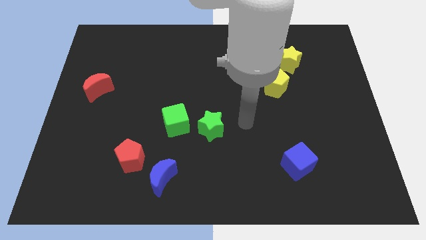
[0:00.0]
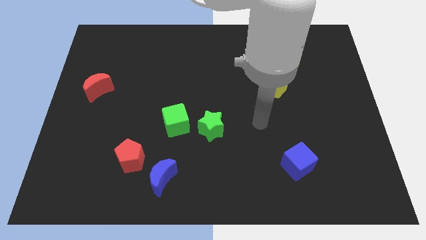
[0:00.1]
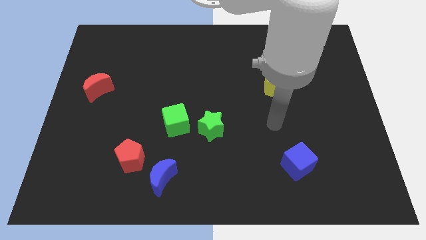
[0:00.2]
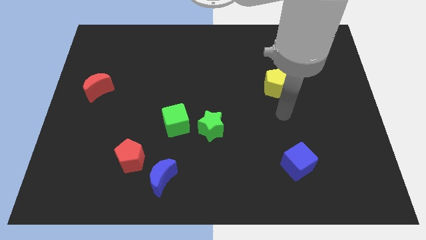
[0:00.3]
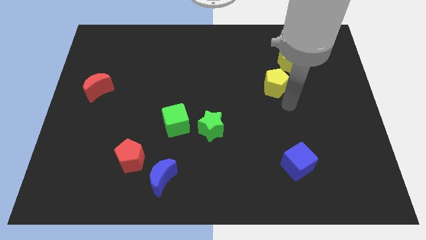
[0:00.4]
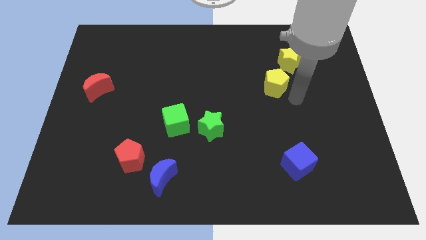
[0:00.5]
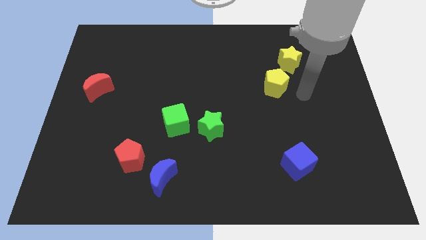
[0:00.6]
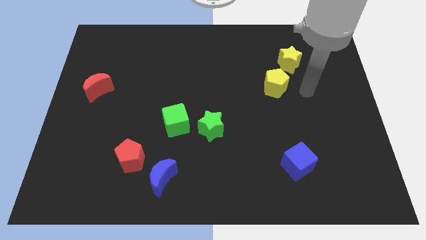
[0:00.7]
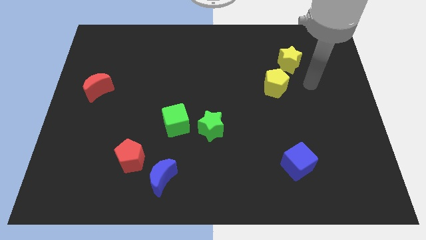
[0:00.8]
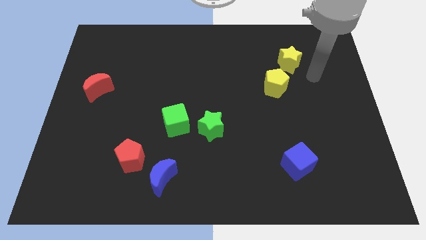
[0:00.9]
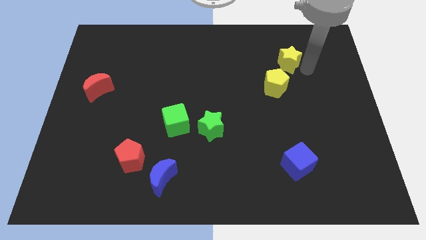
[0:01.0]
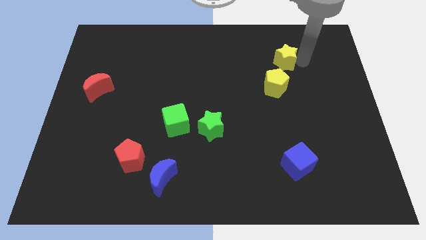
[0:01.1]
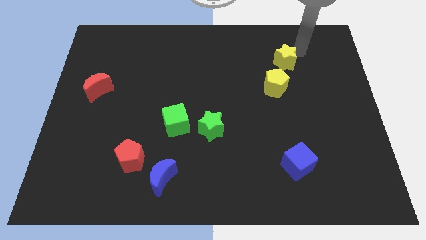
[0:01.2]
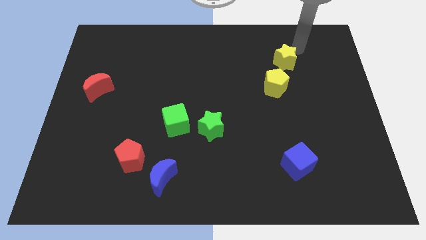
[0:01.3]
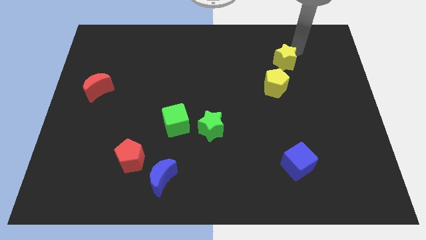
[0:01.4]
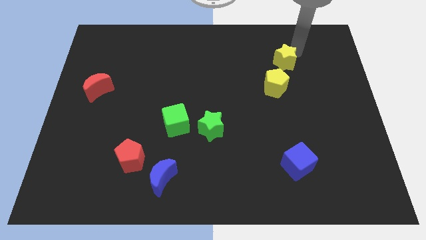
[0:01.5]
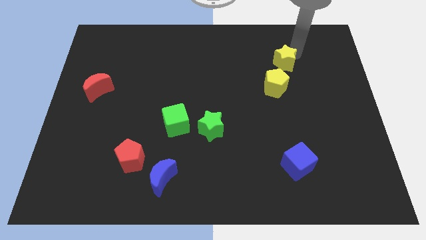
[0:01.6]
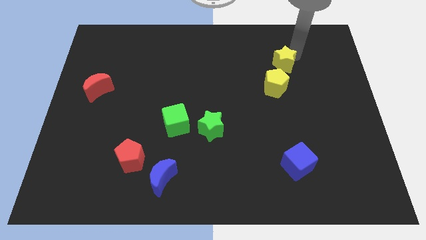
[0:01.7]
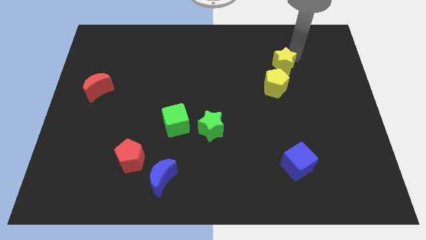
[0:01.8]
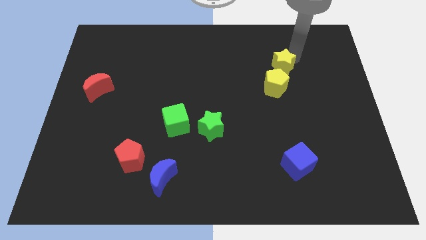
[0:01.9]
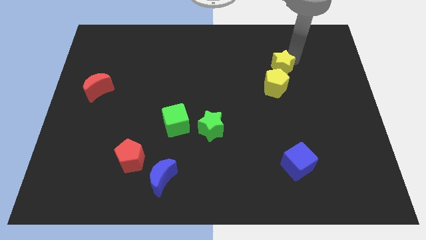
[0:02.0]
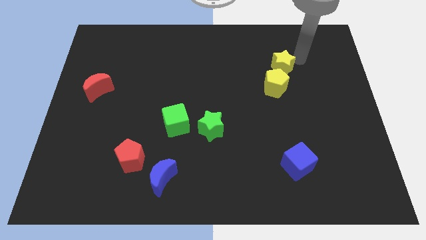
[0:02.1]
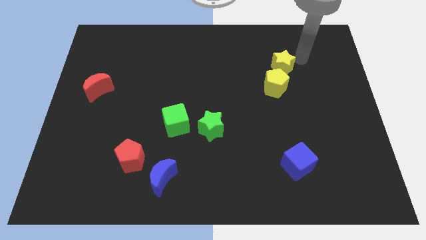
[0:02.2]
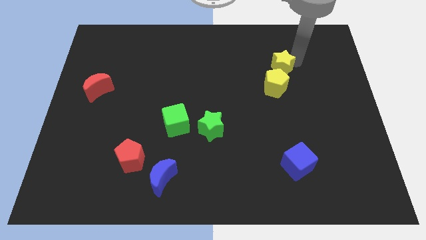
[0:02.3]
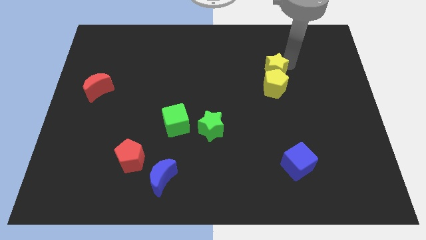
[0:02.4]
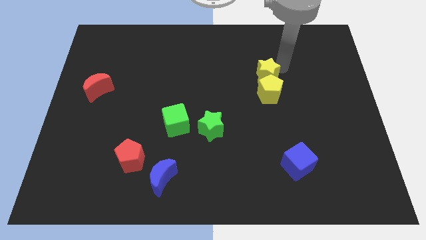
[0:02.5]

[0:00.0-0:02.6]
slide the yellow star down and to the left diagonally a little bit

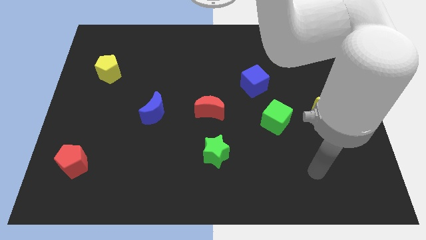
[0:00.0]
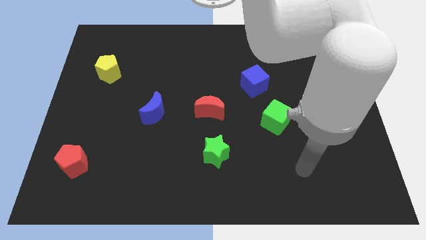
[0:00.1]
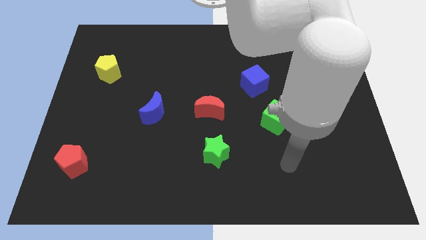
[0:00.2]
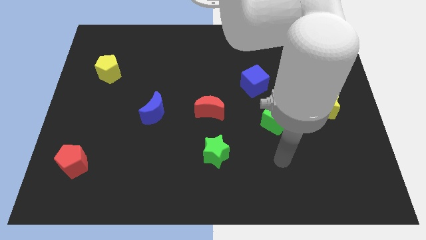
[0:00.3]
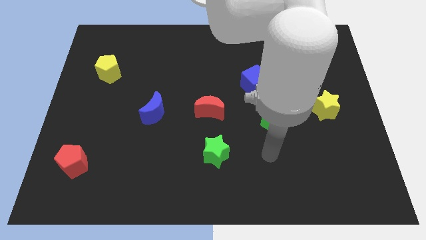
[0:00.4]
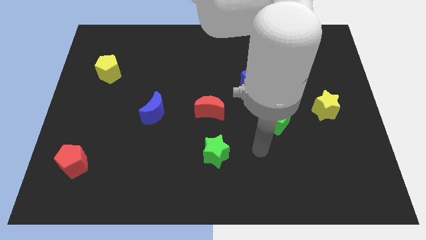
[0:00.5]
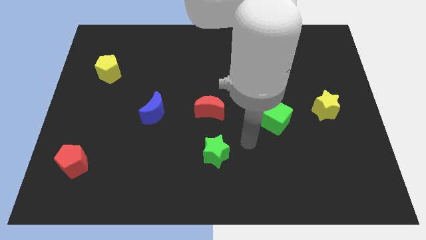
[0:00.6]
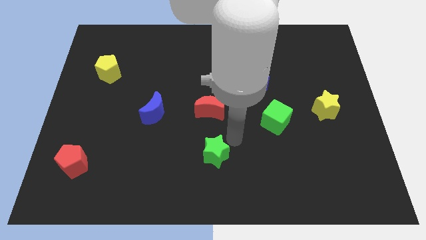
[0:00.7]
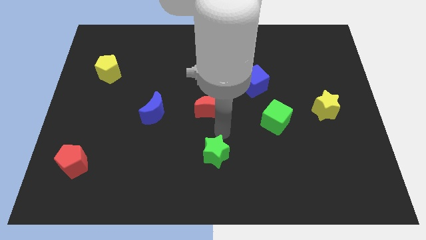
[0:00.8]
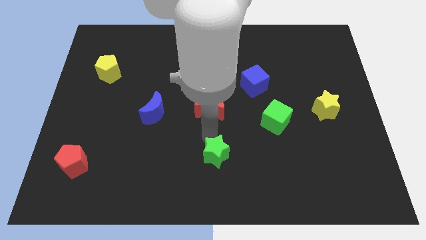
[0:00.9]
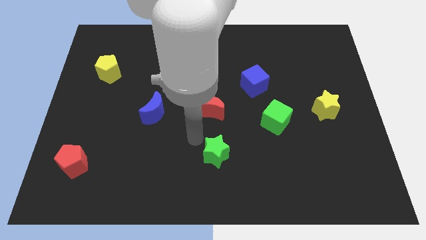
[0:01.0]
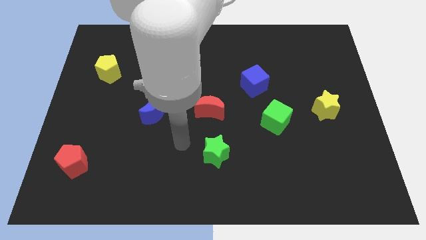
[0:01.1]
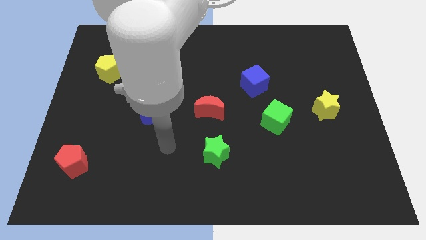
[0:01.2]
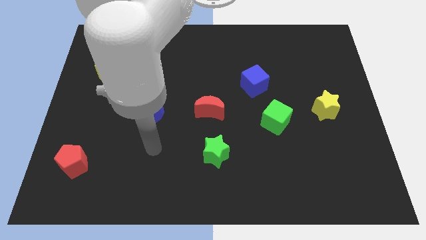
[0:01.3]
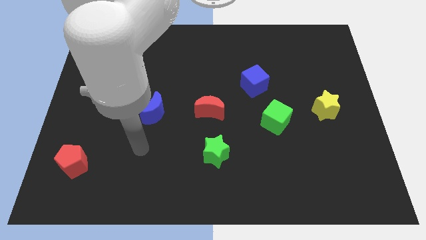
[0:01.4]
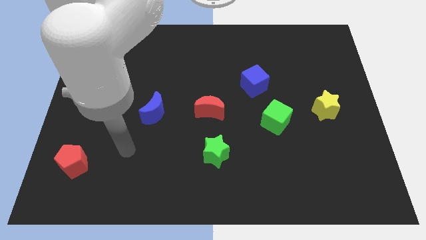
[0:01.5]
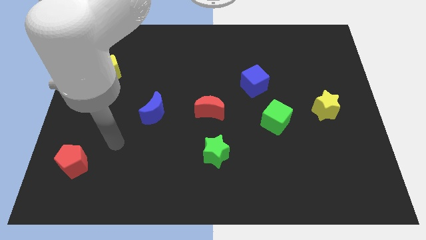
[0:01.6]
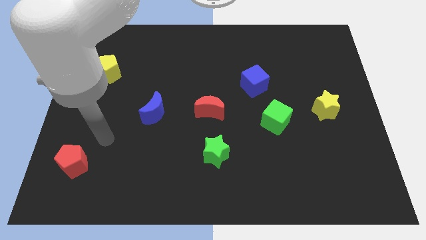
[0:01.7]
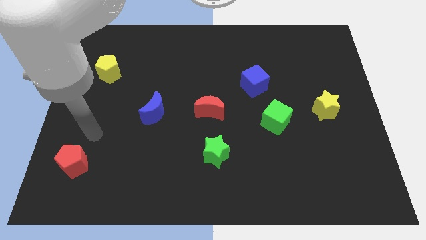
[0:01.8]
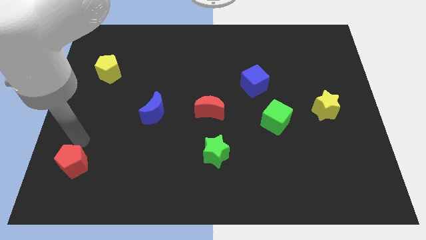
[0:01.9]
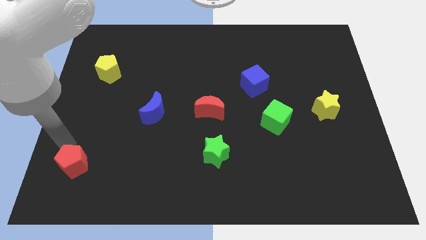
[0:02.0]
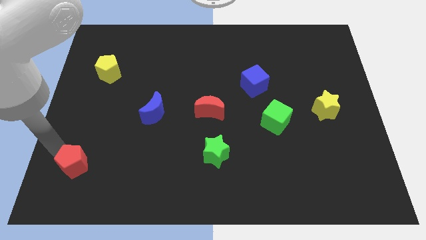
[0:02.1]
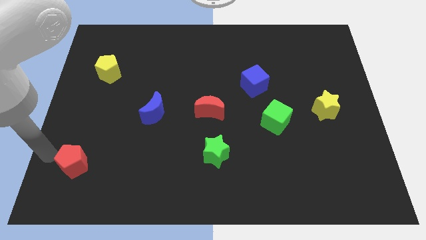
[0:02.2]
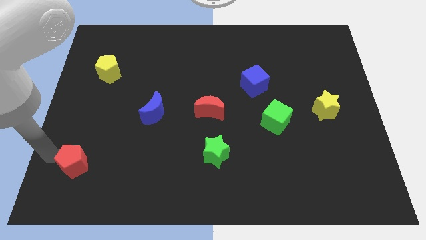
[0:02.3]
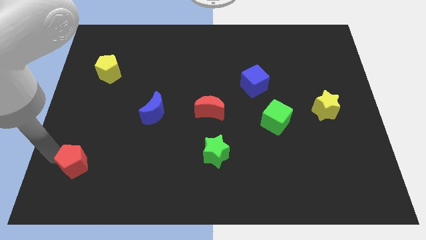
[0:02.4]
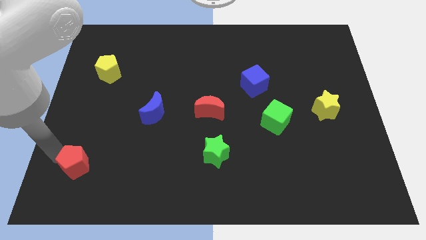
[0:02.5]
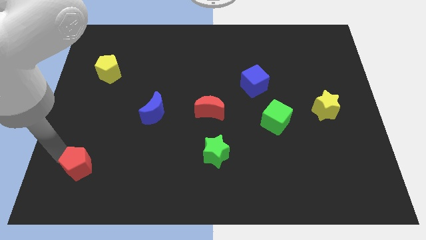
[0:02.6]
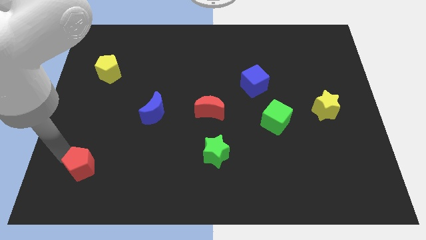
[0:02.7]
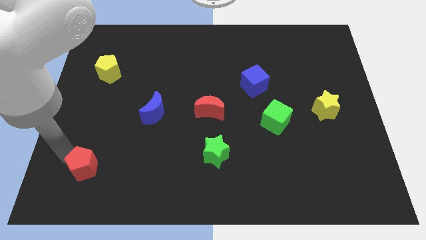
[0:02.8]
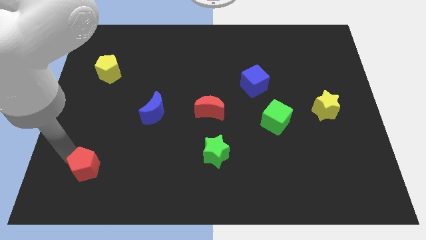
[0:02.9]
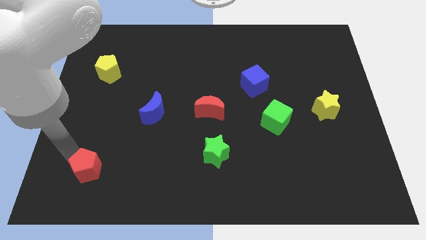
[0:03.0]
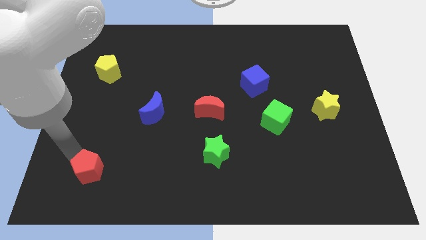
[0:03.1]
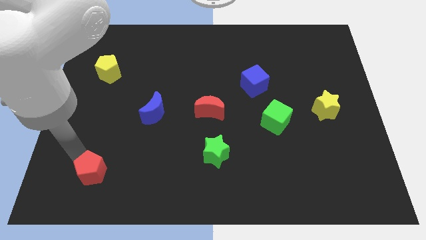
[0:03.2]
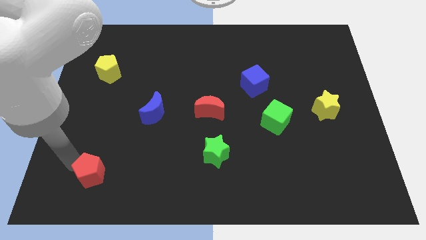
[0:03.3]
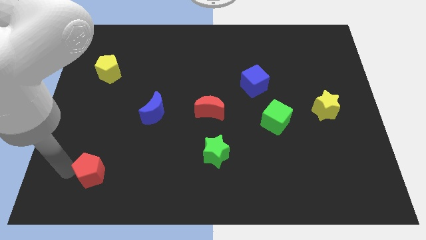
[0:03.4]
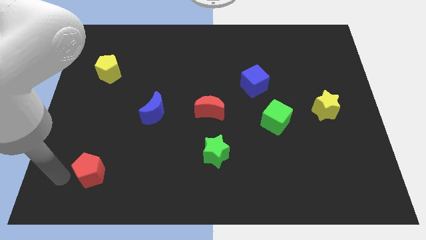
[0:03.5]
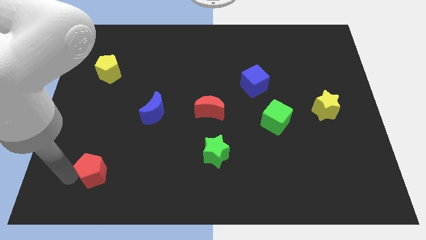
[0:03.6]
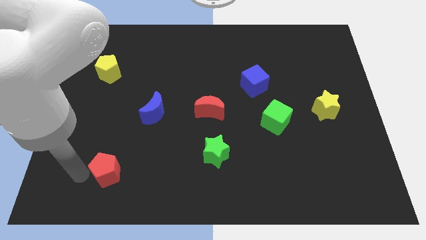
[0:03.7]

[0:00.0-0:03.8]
move the red pentagon a little to the right

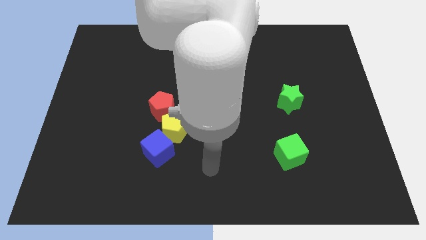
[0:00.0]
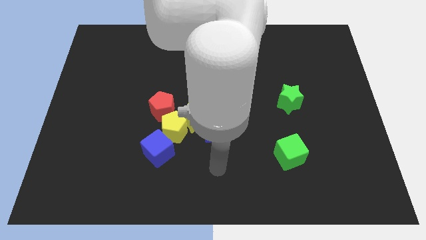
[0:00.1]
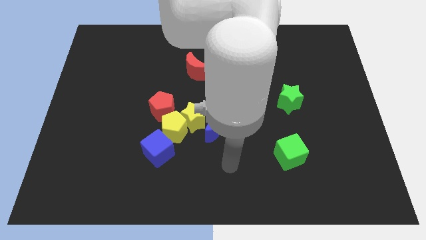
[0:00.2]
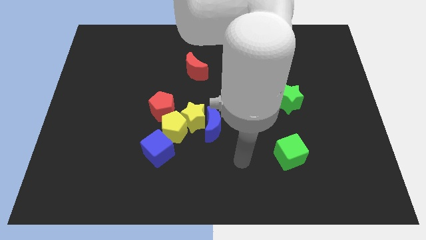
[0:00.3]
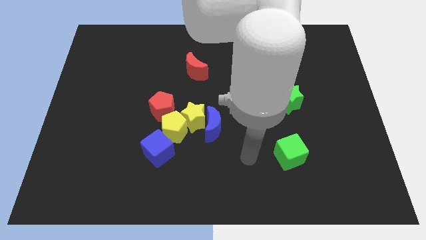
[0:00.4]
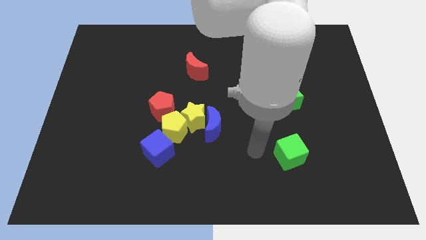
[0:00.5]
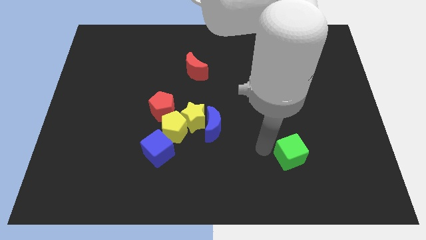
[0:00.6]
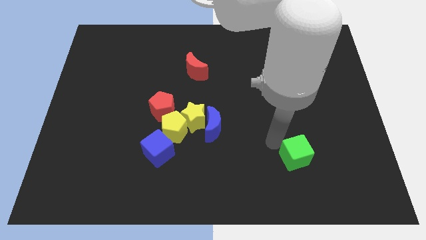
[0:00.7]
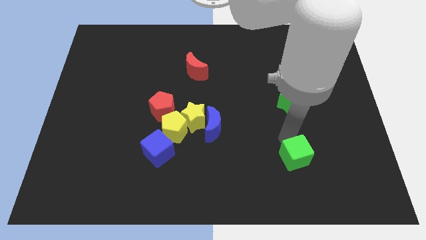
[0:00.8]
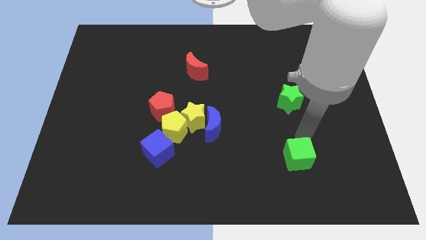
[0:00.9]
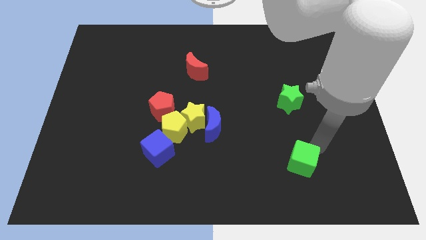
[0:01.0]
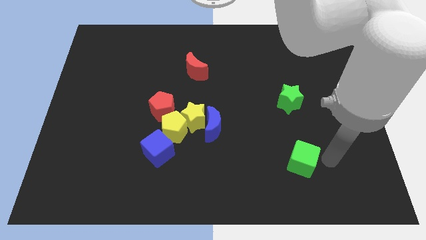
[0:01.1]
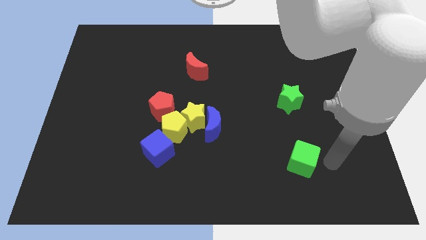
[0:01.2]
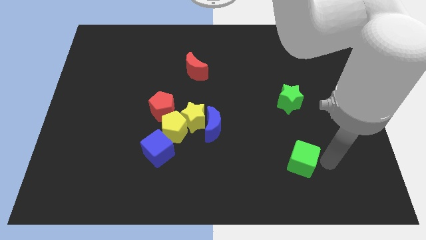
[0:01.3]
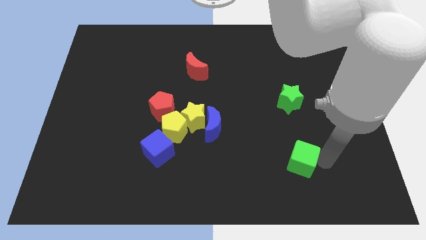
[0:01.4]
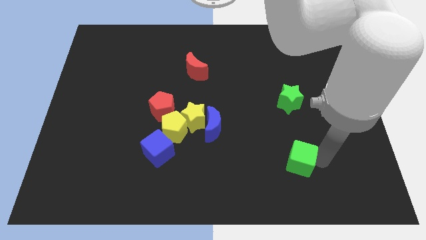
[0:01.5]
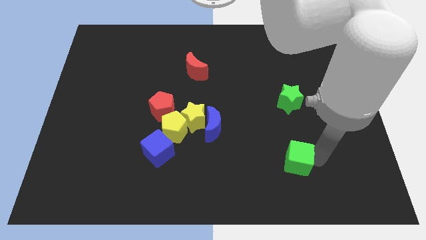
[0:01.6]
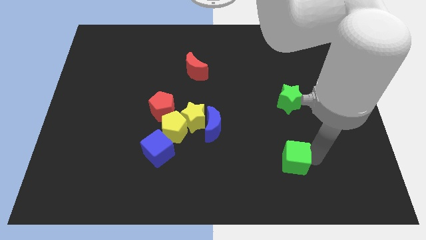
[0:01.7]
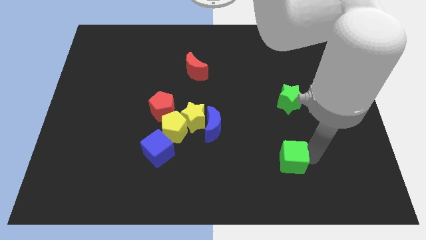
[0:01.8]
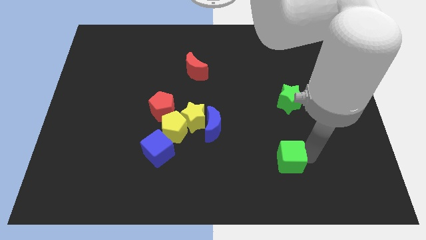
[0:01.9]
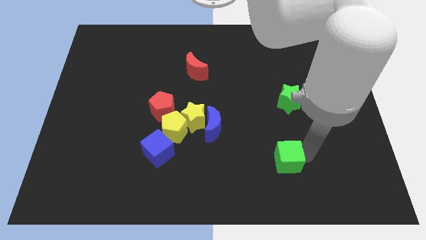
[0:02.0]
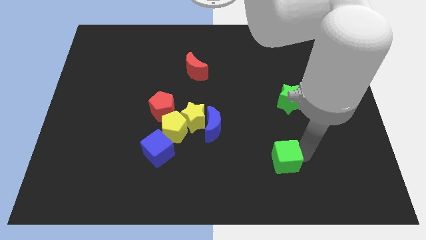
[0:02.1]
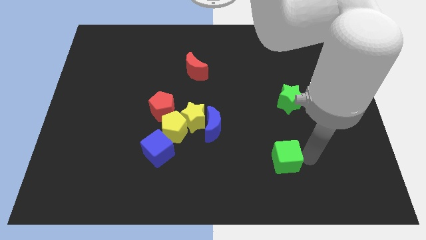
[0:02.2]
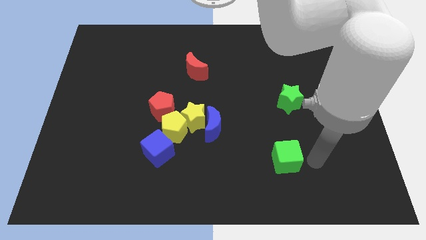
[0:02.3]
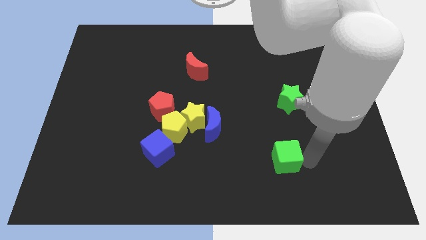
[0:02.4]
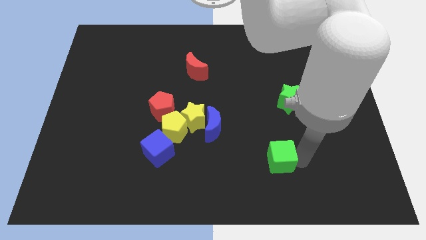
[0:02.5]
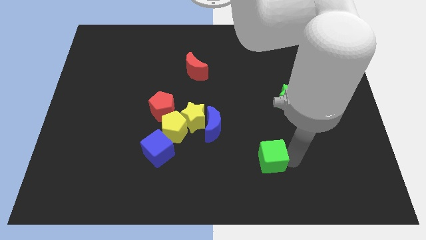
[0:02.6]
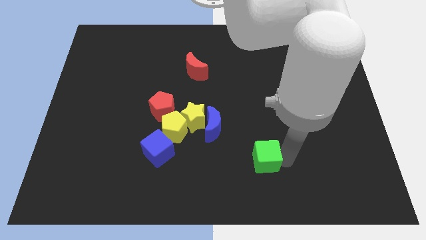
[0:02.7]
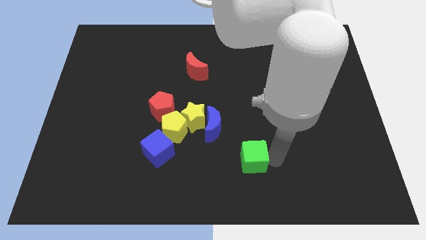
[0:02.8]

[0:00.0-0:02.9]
slide the green cube left slightly
